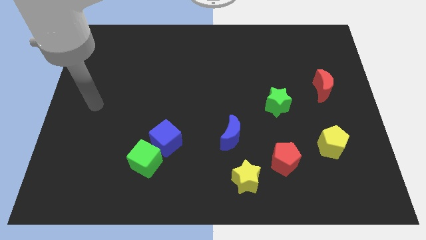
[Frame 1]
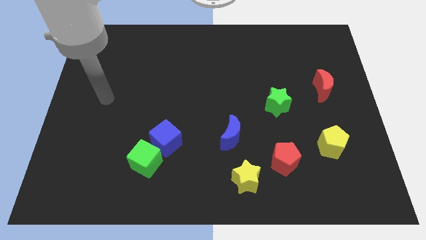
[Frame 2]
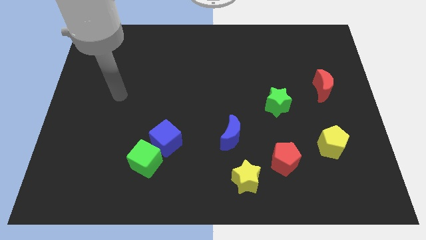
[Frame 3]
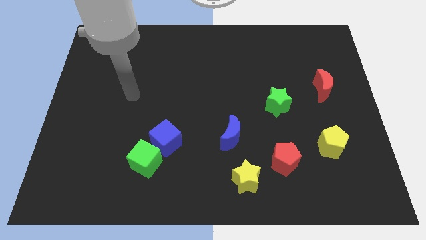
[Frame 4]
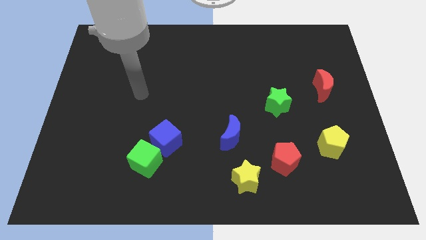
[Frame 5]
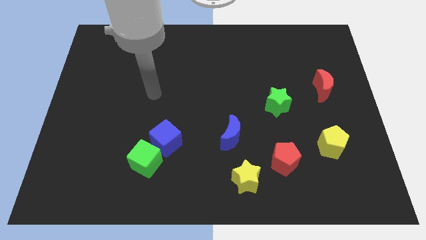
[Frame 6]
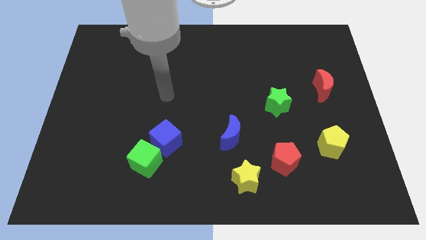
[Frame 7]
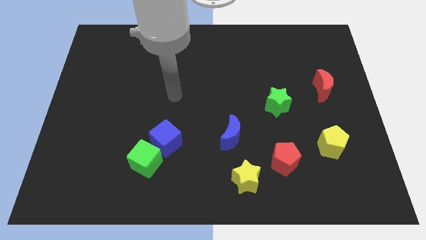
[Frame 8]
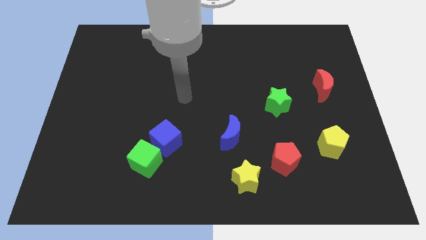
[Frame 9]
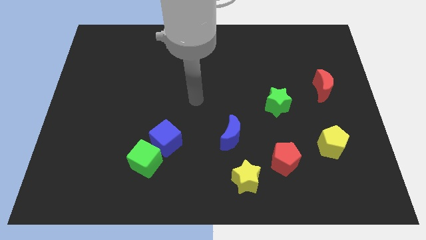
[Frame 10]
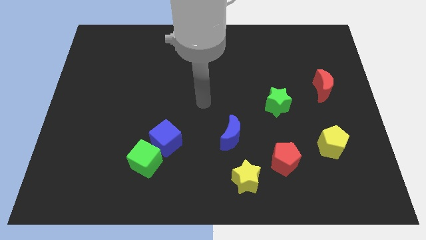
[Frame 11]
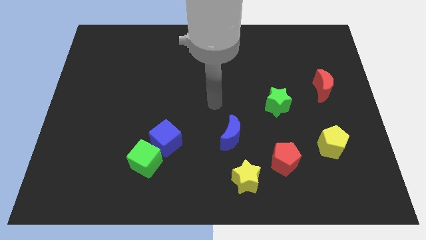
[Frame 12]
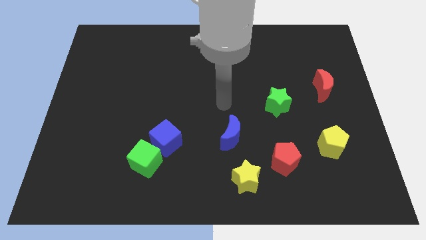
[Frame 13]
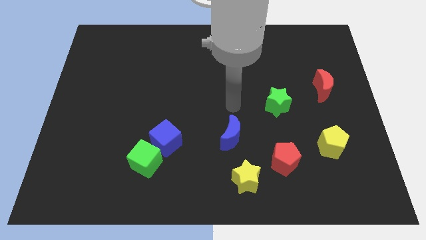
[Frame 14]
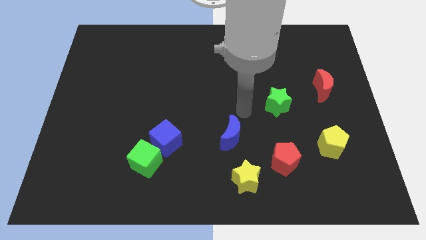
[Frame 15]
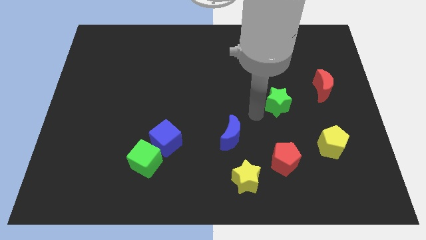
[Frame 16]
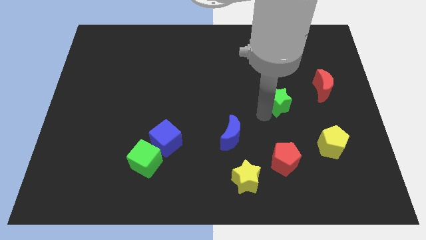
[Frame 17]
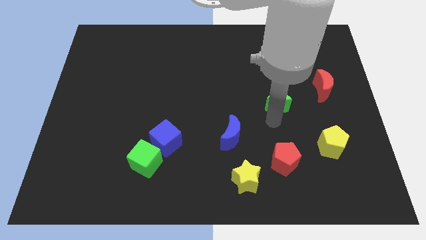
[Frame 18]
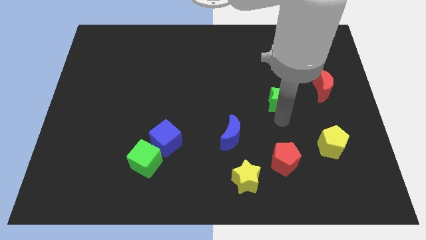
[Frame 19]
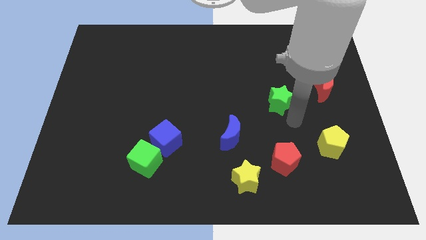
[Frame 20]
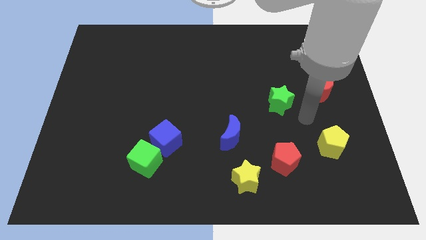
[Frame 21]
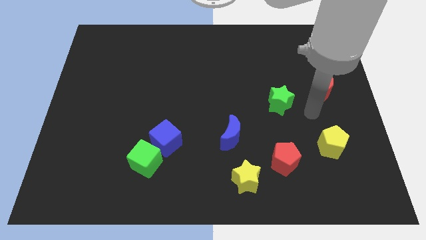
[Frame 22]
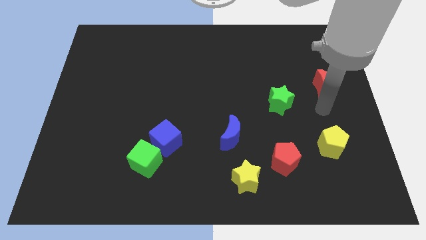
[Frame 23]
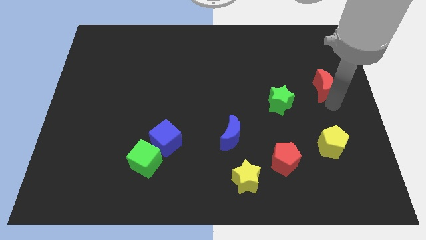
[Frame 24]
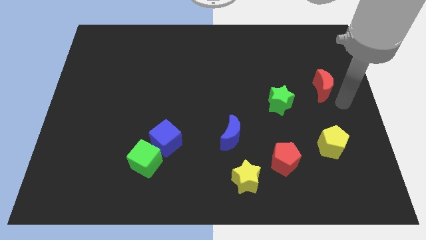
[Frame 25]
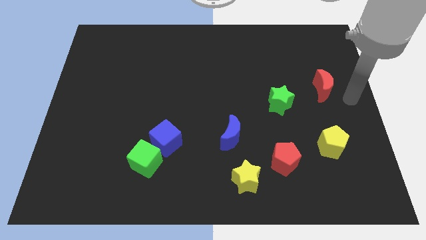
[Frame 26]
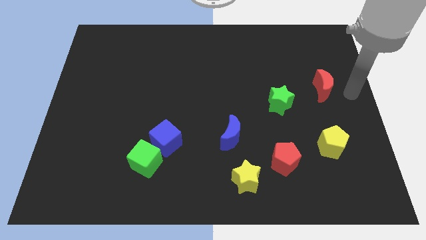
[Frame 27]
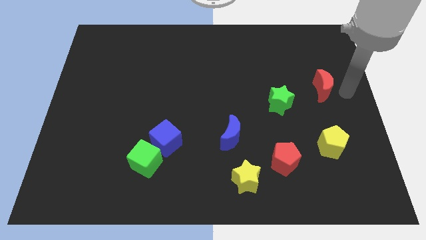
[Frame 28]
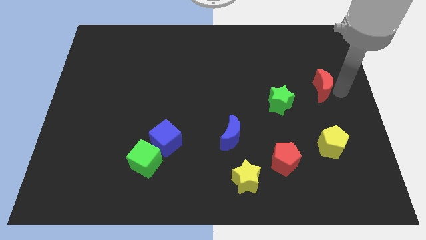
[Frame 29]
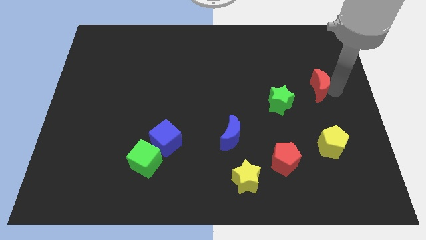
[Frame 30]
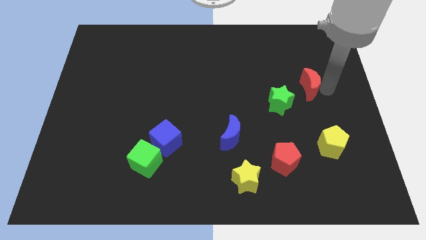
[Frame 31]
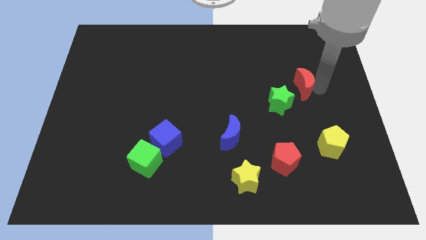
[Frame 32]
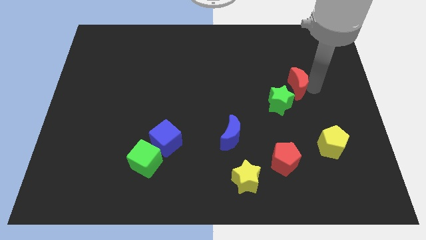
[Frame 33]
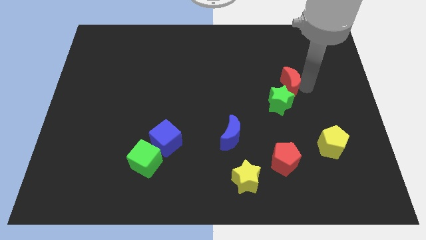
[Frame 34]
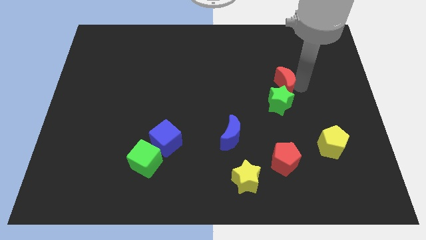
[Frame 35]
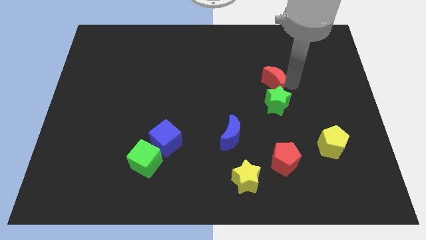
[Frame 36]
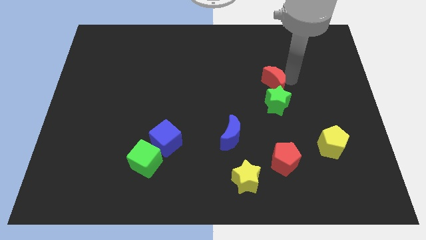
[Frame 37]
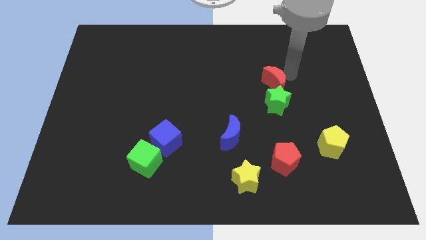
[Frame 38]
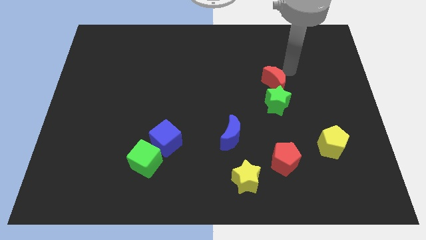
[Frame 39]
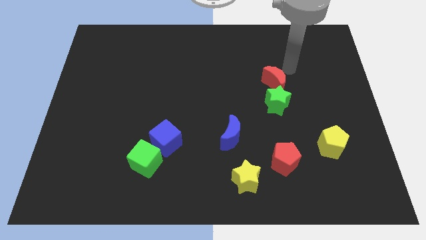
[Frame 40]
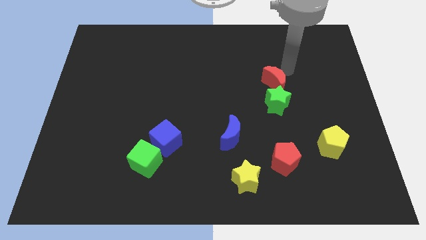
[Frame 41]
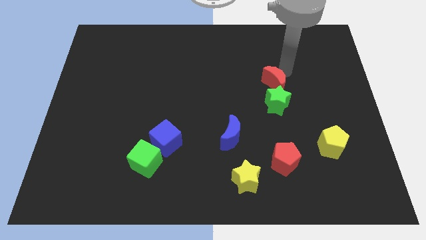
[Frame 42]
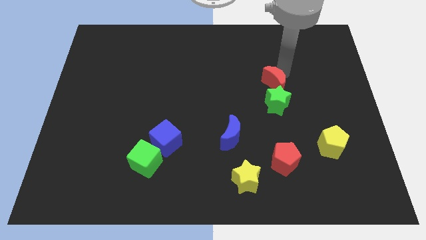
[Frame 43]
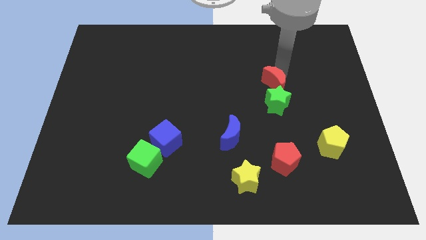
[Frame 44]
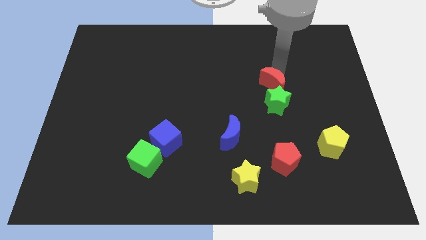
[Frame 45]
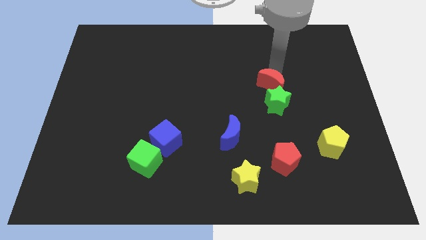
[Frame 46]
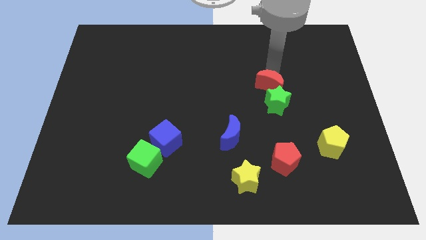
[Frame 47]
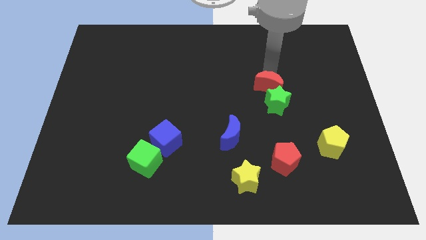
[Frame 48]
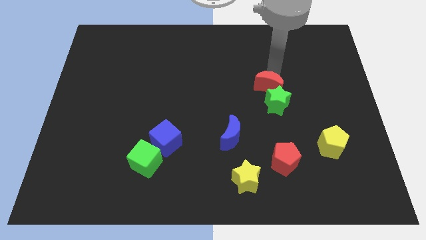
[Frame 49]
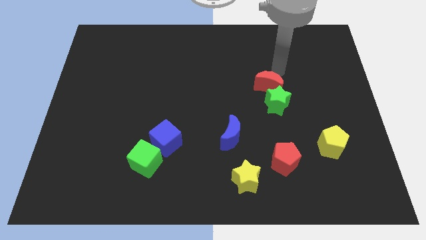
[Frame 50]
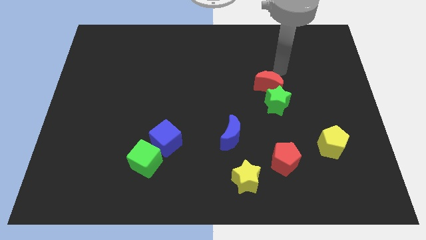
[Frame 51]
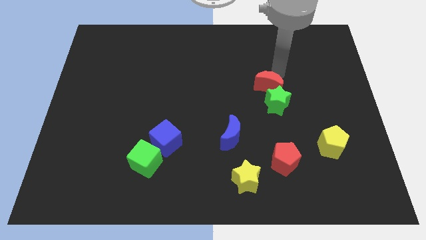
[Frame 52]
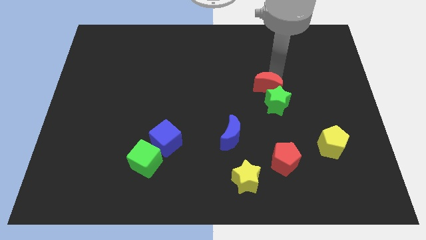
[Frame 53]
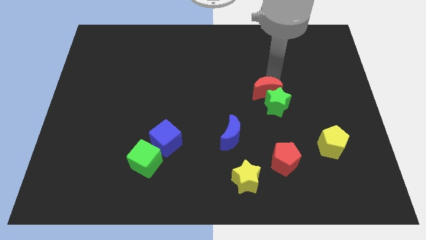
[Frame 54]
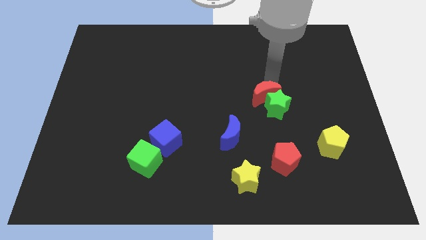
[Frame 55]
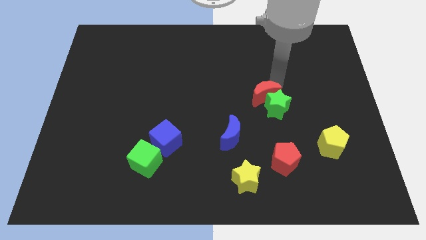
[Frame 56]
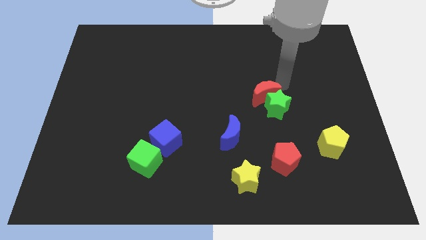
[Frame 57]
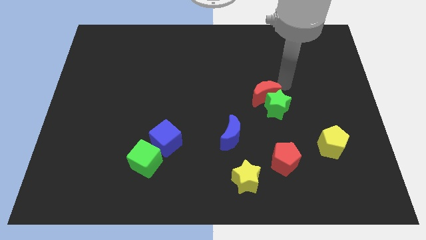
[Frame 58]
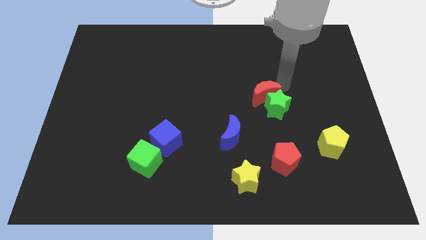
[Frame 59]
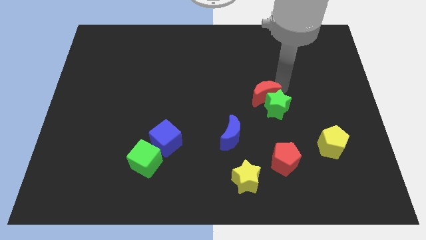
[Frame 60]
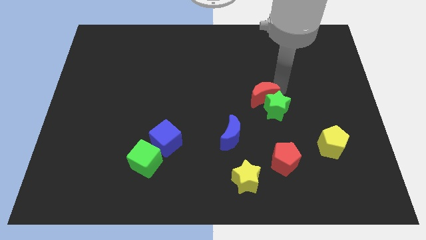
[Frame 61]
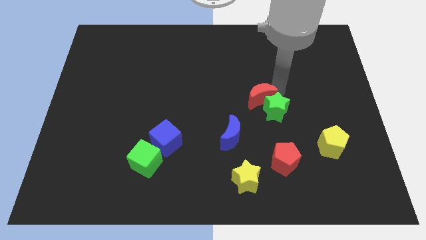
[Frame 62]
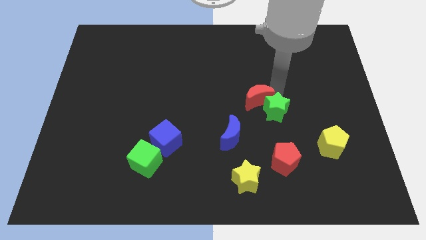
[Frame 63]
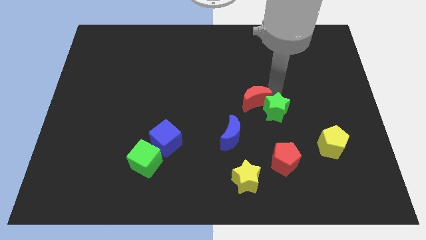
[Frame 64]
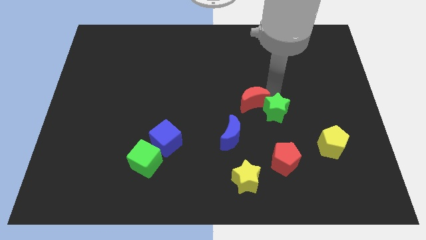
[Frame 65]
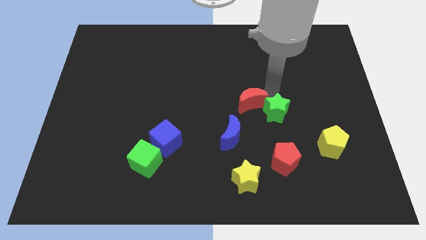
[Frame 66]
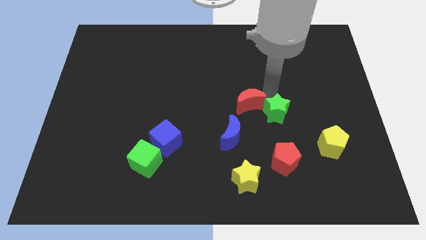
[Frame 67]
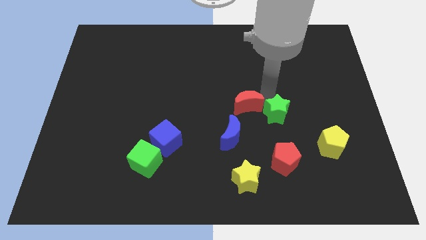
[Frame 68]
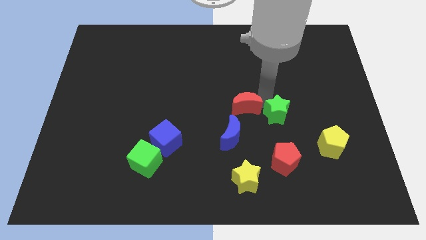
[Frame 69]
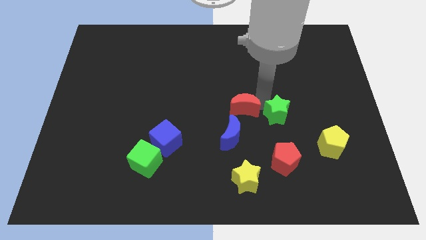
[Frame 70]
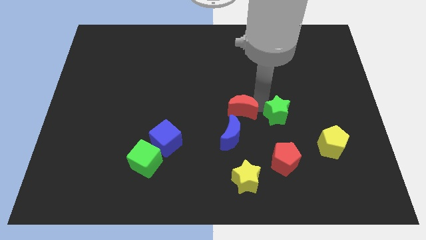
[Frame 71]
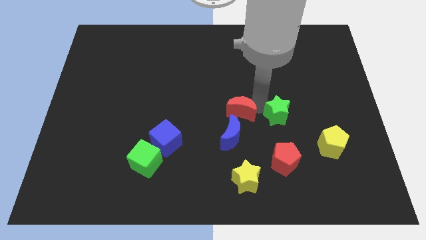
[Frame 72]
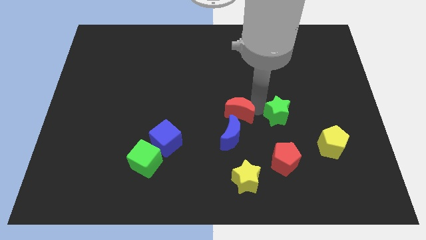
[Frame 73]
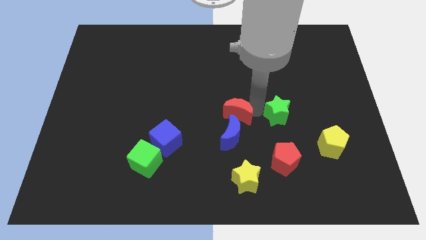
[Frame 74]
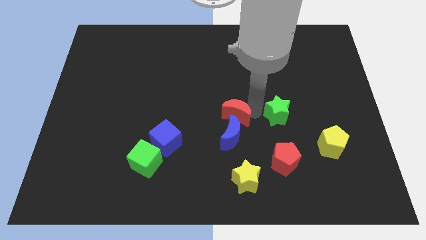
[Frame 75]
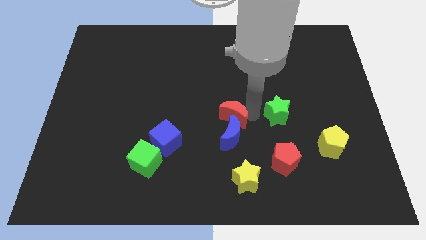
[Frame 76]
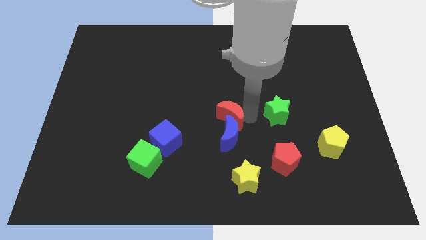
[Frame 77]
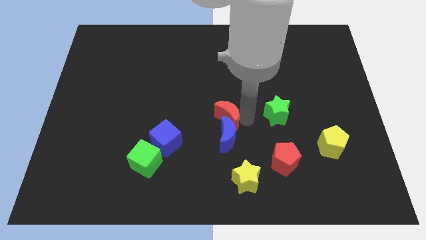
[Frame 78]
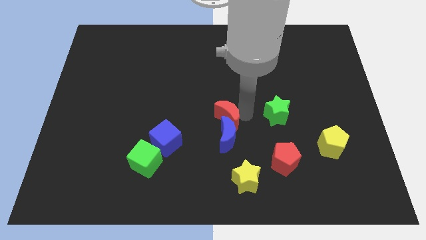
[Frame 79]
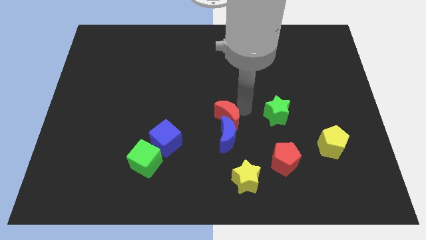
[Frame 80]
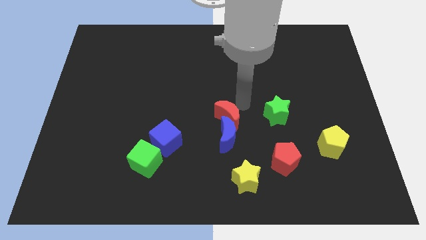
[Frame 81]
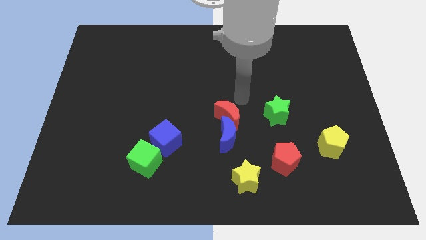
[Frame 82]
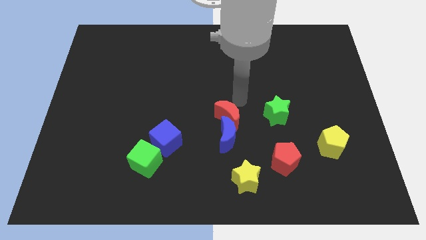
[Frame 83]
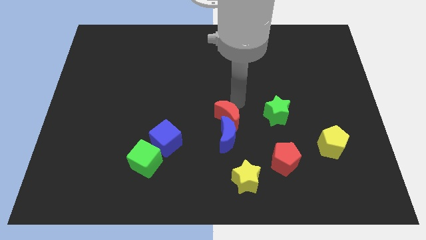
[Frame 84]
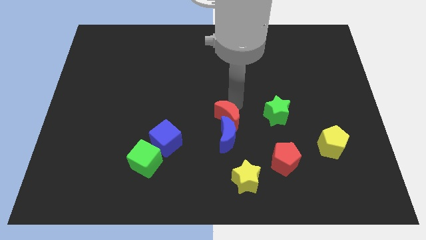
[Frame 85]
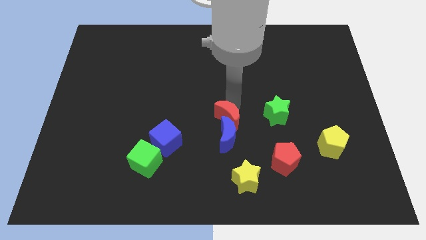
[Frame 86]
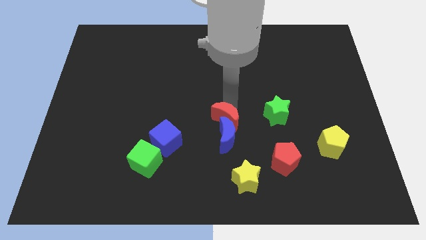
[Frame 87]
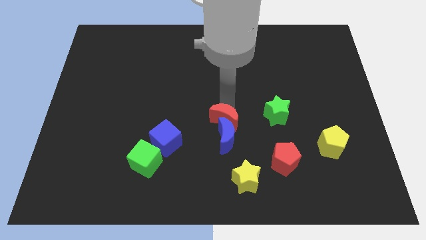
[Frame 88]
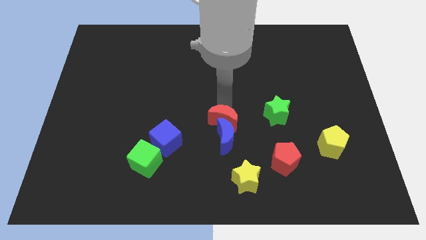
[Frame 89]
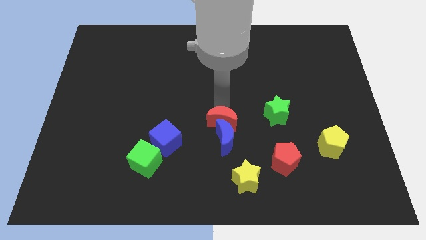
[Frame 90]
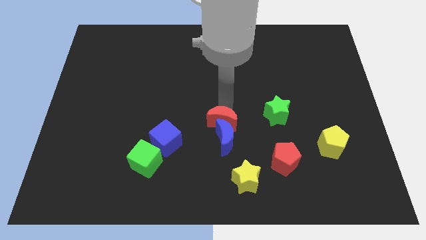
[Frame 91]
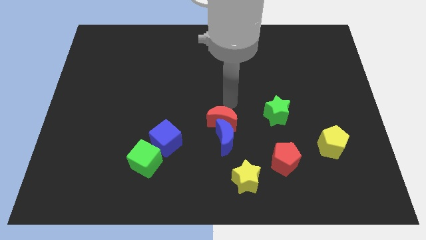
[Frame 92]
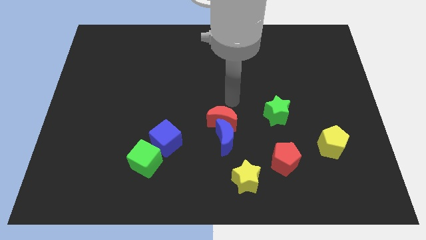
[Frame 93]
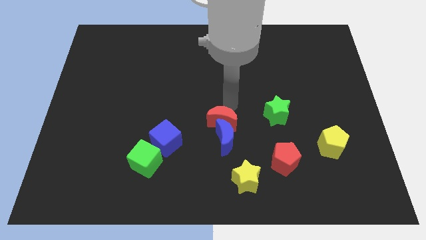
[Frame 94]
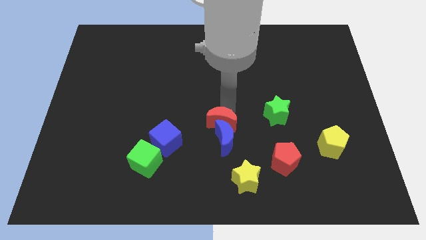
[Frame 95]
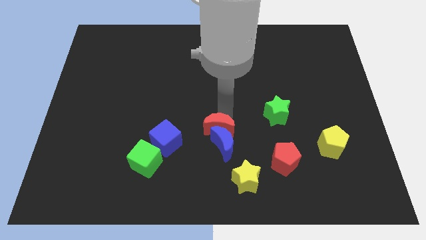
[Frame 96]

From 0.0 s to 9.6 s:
slide the red moon right of the blue cube
